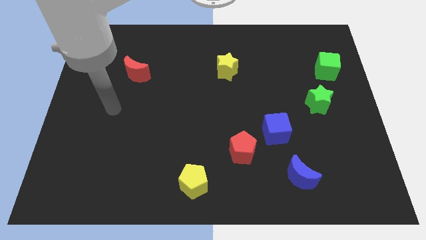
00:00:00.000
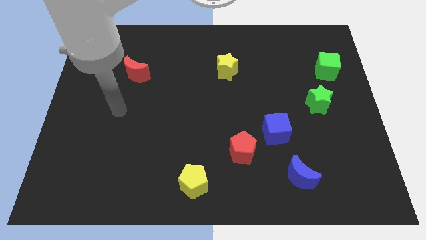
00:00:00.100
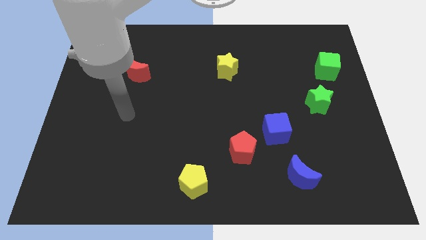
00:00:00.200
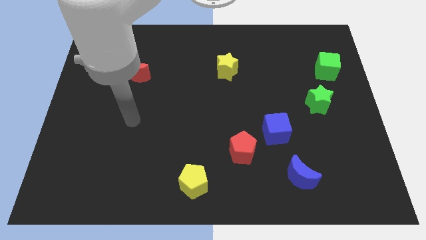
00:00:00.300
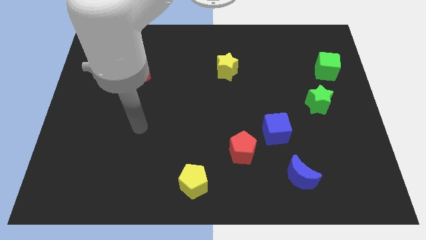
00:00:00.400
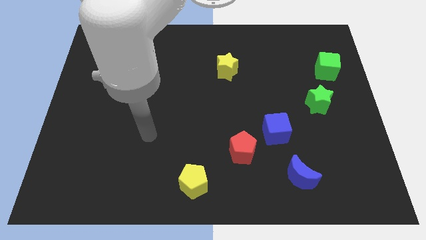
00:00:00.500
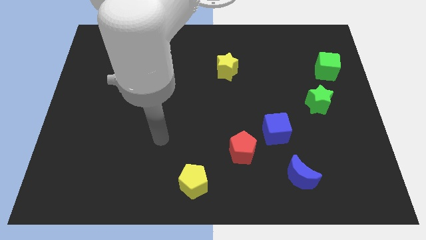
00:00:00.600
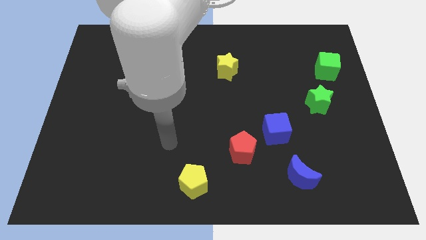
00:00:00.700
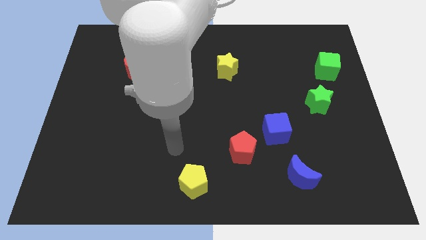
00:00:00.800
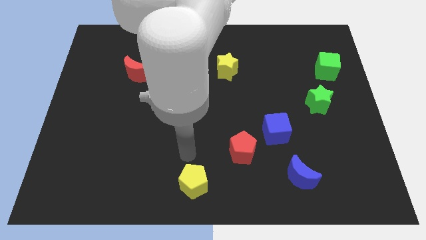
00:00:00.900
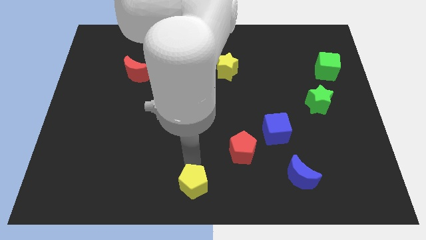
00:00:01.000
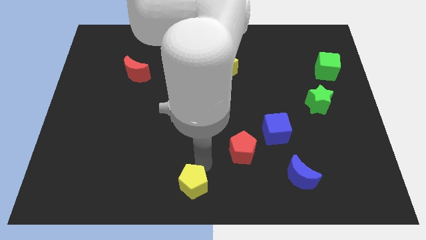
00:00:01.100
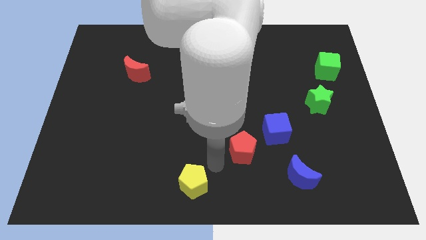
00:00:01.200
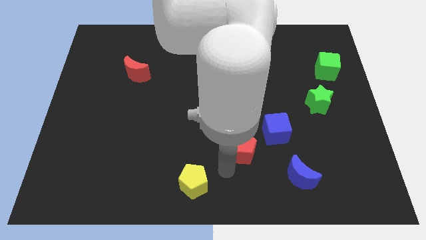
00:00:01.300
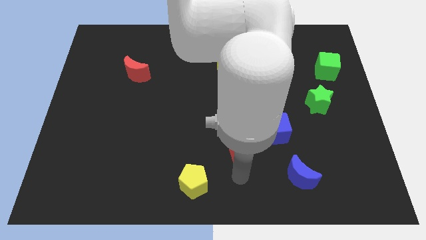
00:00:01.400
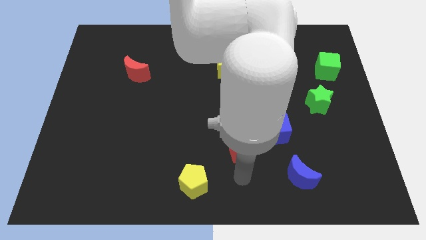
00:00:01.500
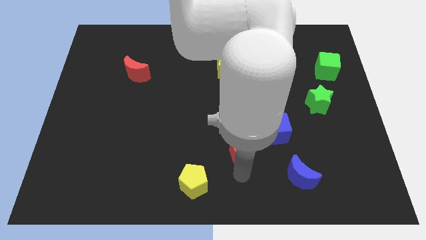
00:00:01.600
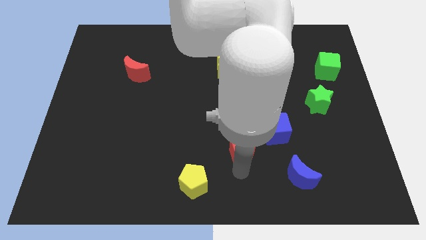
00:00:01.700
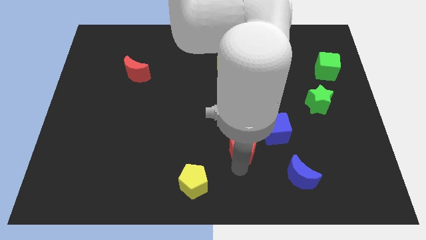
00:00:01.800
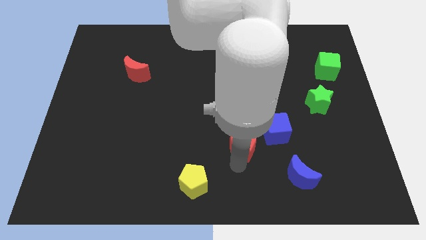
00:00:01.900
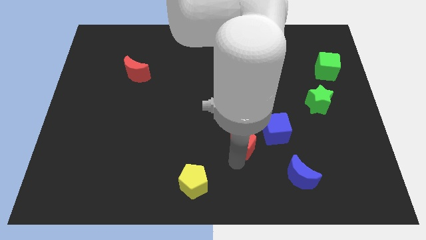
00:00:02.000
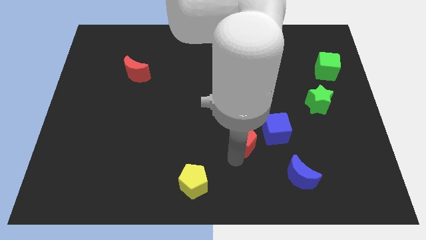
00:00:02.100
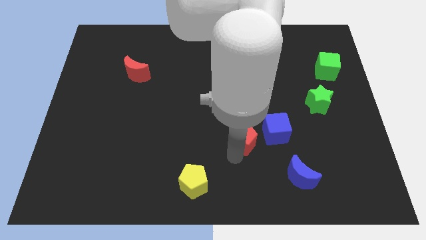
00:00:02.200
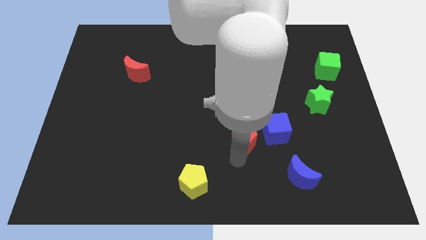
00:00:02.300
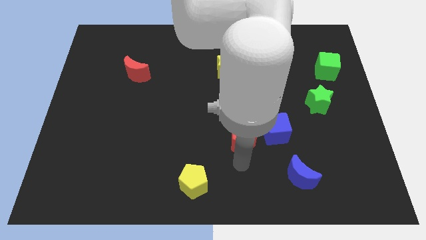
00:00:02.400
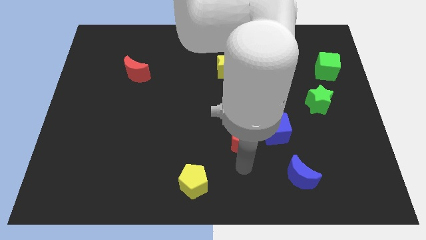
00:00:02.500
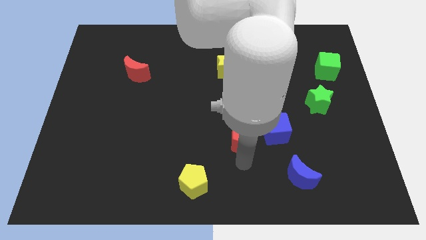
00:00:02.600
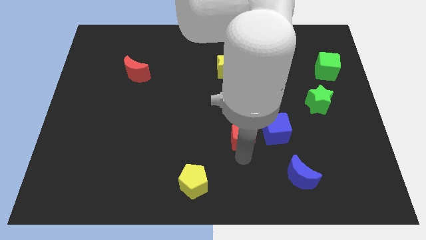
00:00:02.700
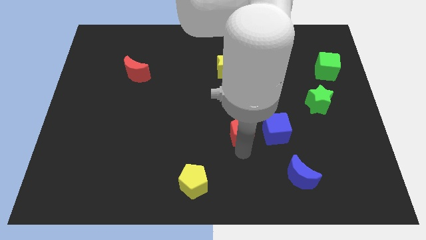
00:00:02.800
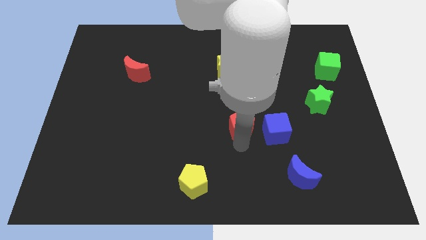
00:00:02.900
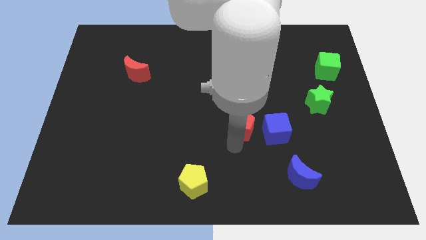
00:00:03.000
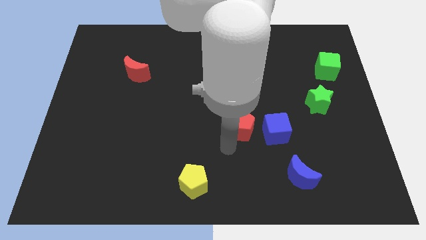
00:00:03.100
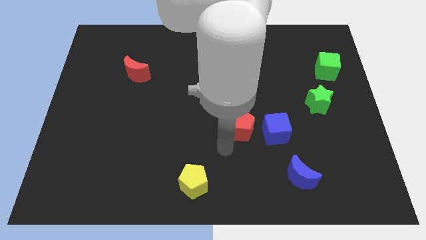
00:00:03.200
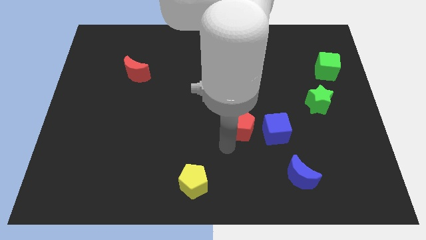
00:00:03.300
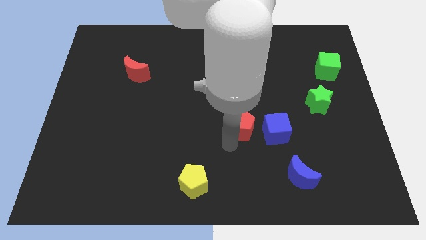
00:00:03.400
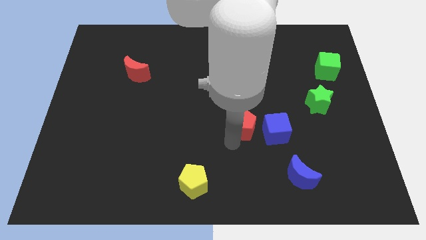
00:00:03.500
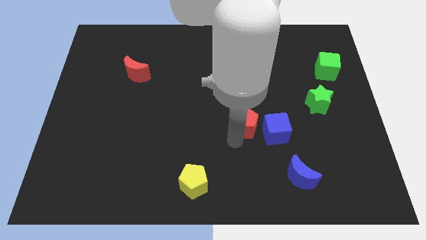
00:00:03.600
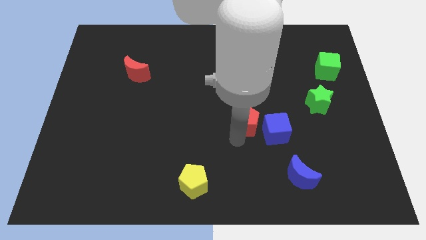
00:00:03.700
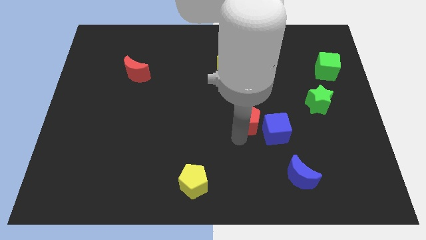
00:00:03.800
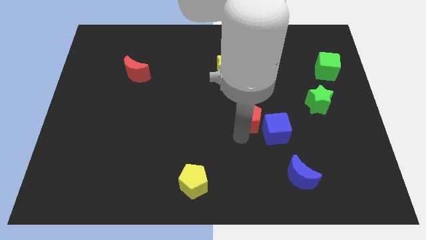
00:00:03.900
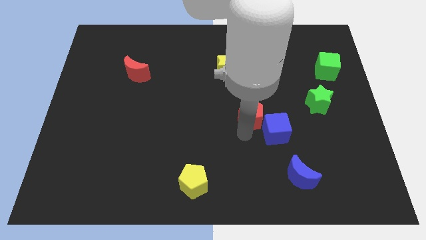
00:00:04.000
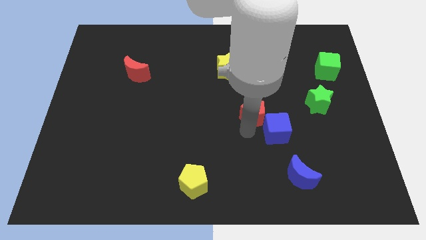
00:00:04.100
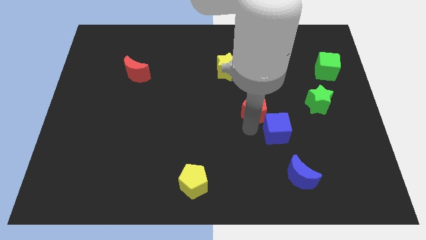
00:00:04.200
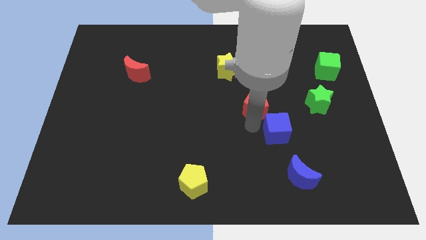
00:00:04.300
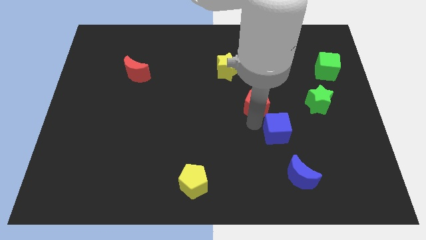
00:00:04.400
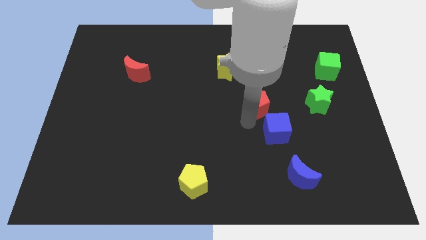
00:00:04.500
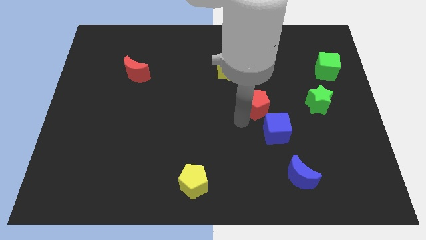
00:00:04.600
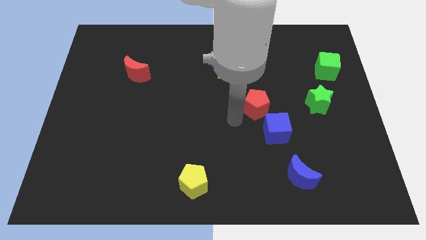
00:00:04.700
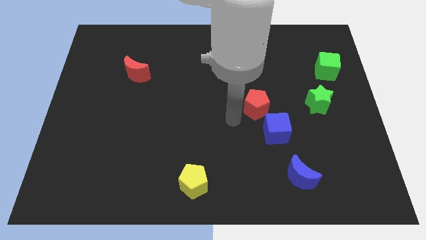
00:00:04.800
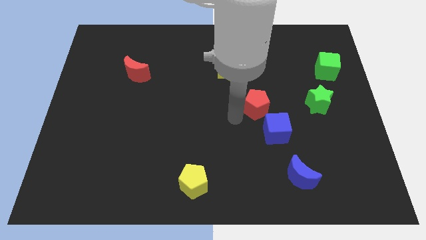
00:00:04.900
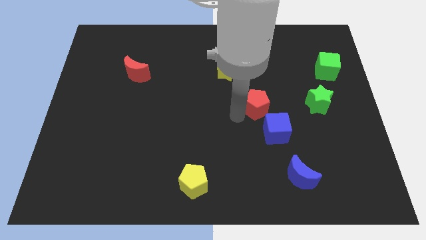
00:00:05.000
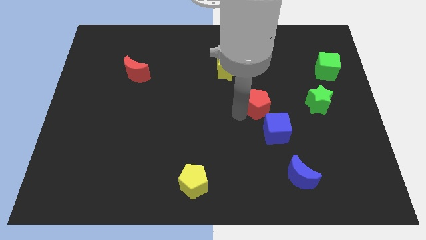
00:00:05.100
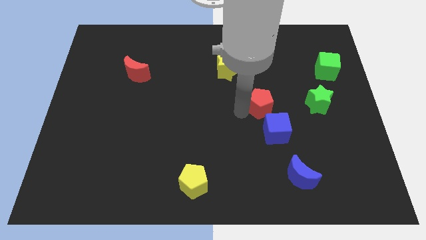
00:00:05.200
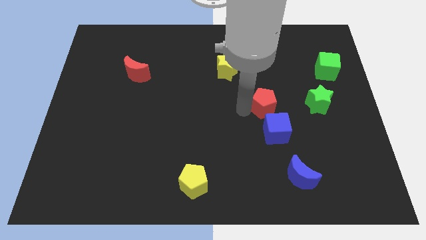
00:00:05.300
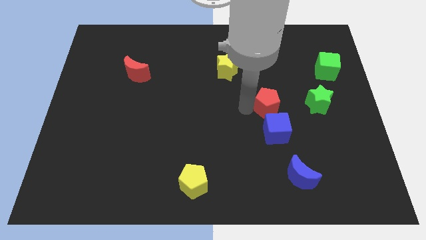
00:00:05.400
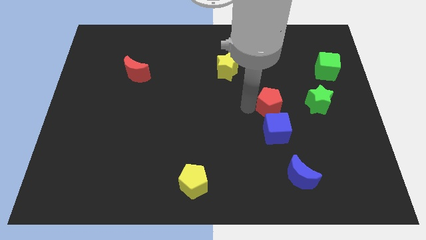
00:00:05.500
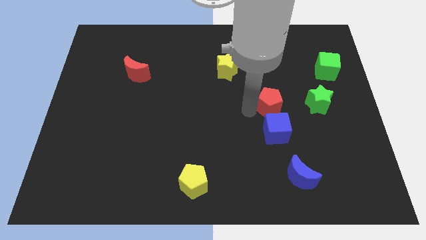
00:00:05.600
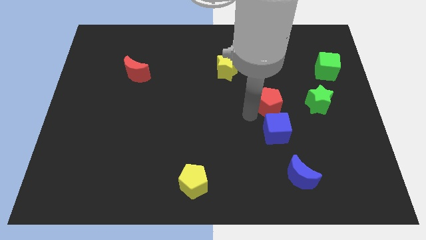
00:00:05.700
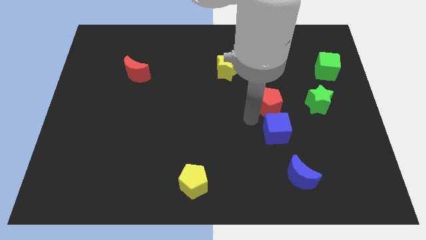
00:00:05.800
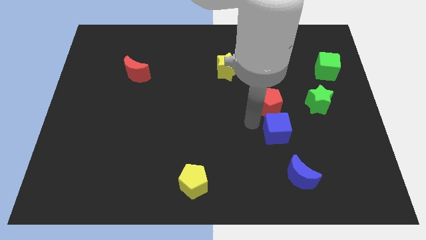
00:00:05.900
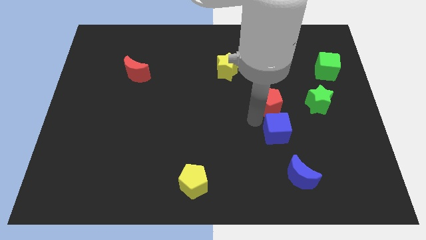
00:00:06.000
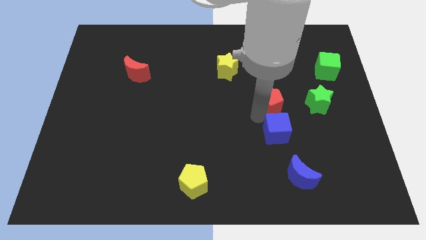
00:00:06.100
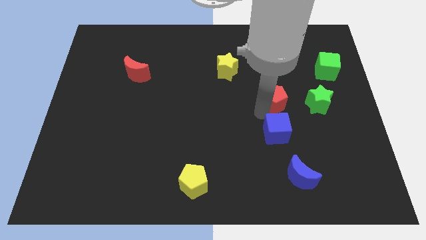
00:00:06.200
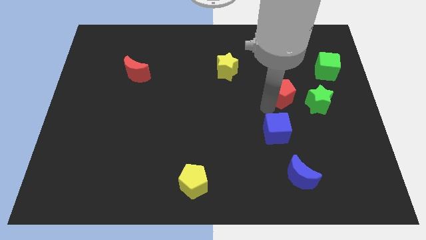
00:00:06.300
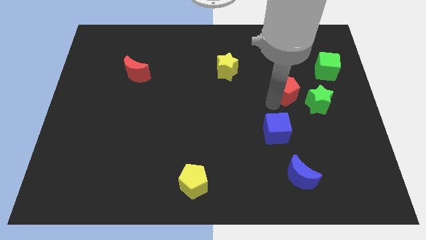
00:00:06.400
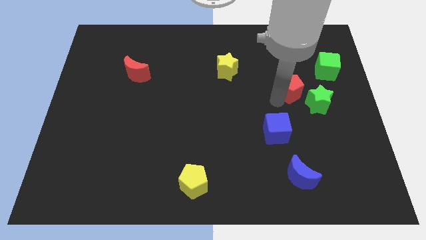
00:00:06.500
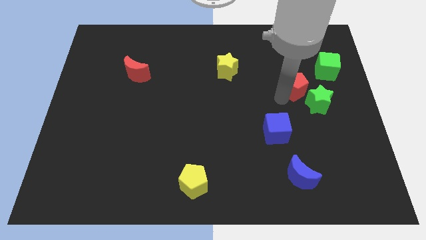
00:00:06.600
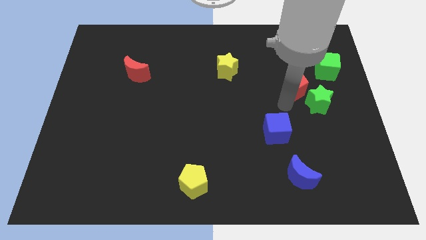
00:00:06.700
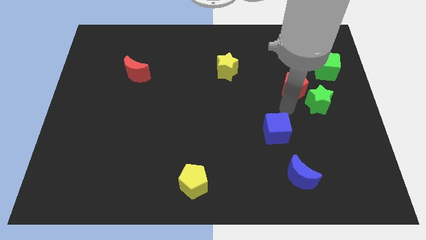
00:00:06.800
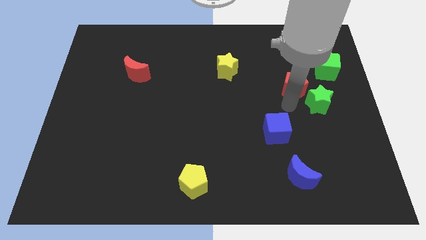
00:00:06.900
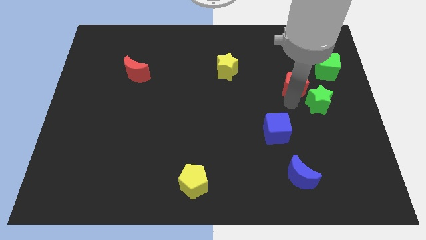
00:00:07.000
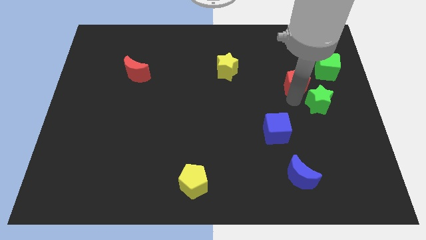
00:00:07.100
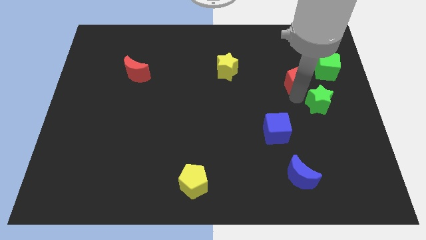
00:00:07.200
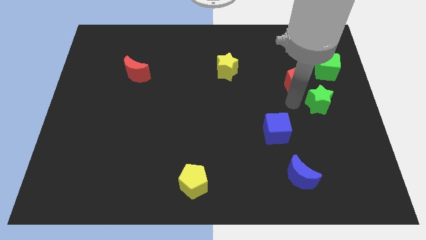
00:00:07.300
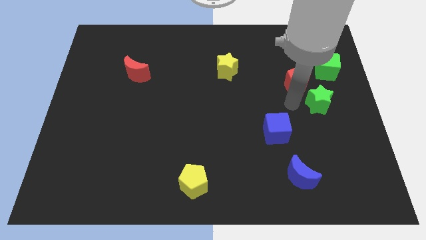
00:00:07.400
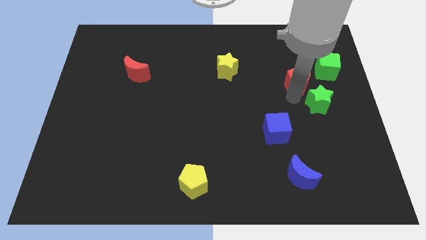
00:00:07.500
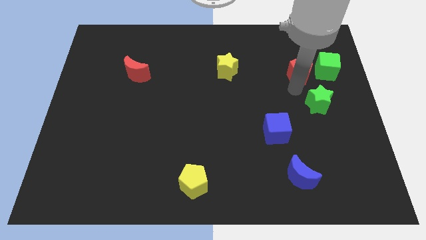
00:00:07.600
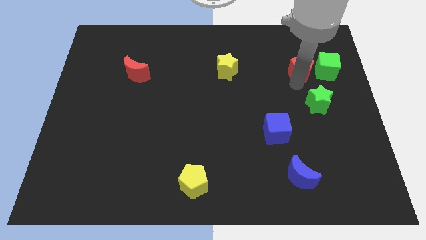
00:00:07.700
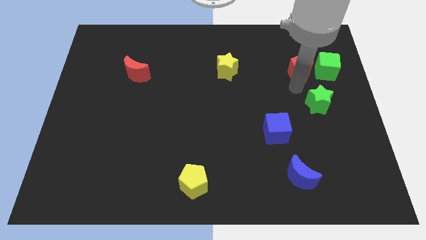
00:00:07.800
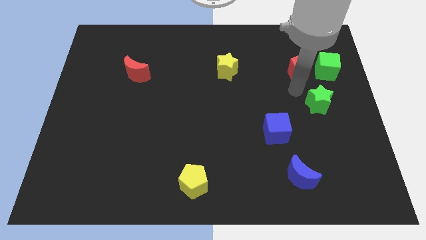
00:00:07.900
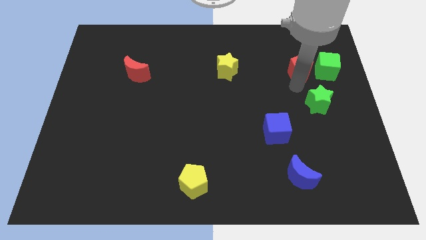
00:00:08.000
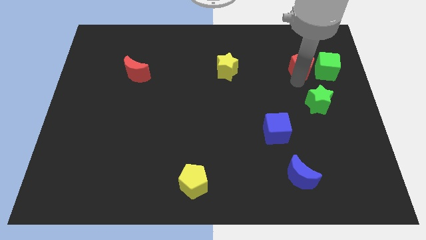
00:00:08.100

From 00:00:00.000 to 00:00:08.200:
push the red pentagon to the top left side of the green cube
